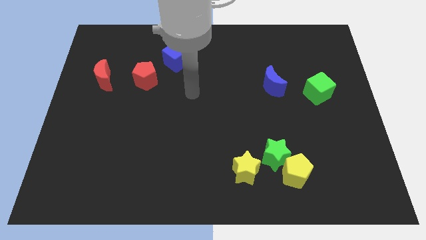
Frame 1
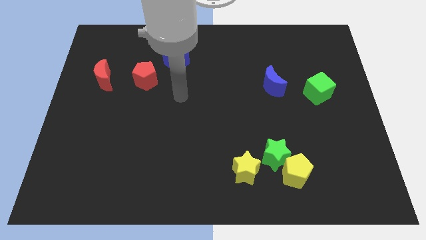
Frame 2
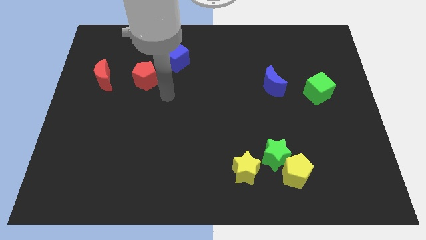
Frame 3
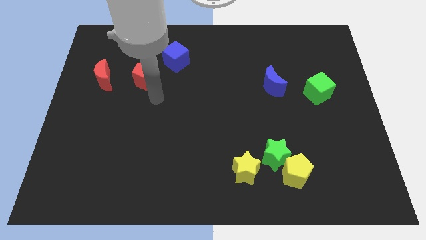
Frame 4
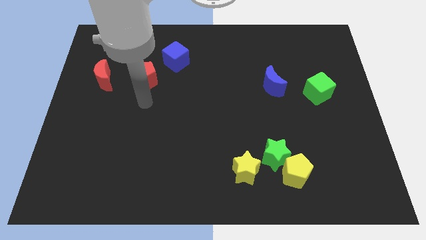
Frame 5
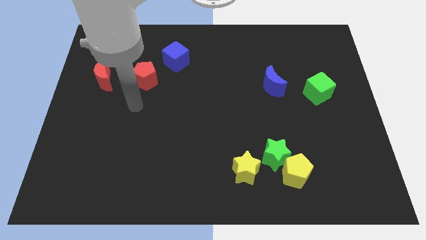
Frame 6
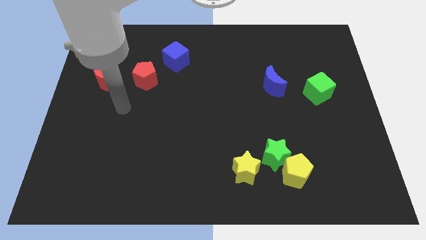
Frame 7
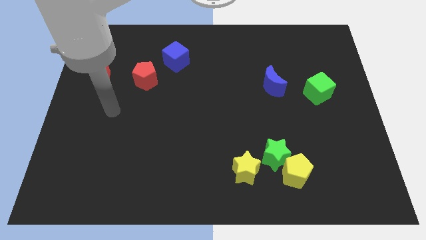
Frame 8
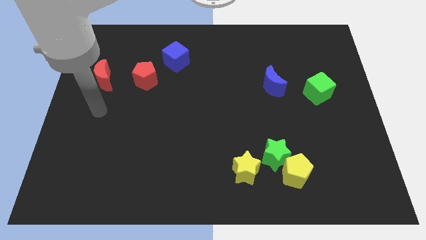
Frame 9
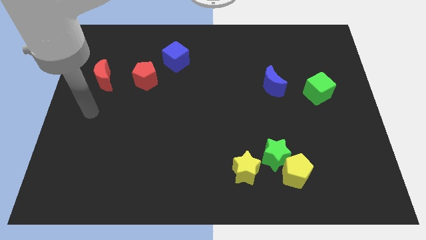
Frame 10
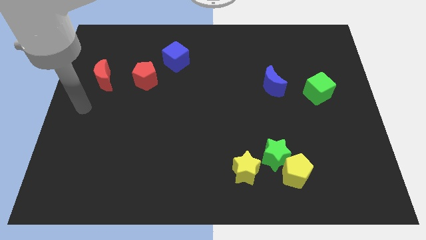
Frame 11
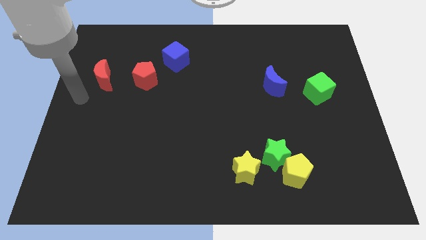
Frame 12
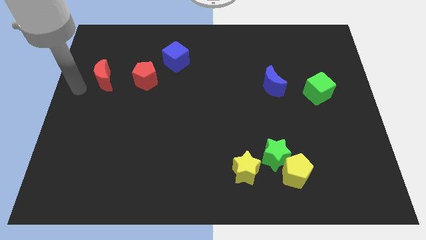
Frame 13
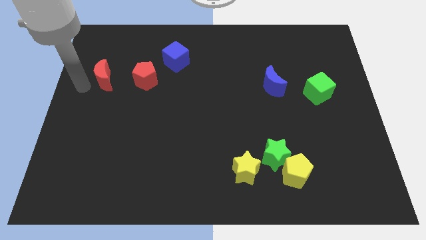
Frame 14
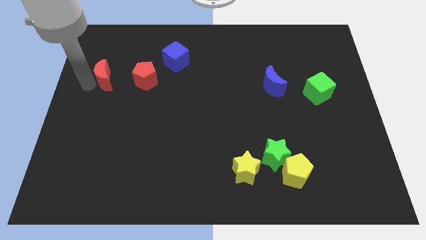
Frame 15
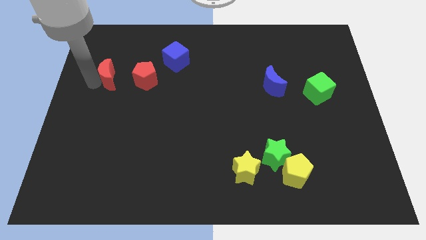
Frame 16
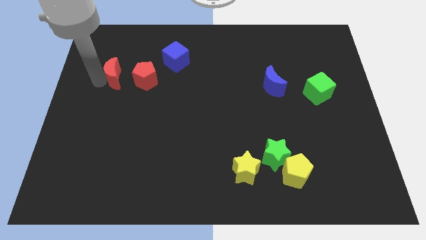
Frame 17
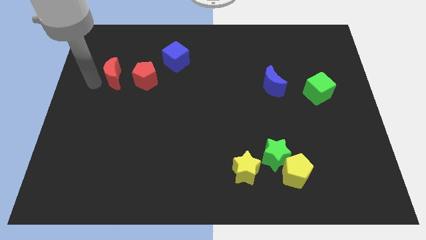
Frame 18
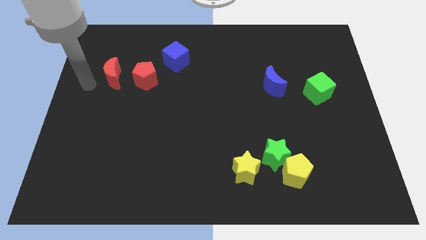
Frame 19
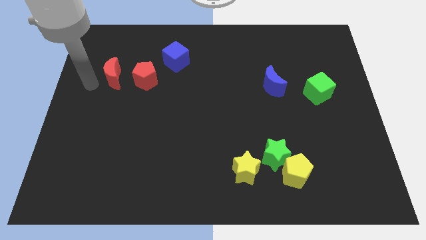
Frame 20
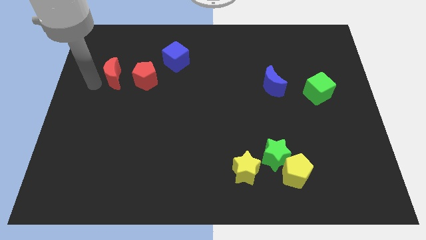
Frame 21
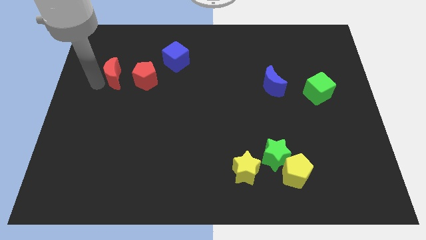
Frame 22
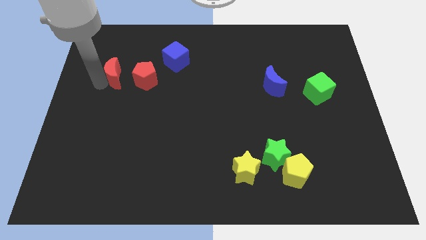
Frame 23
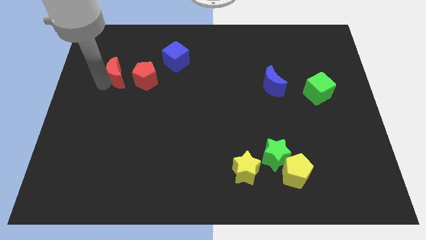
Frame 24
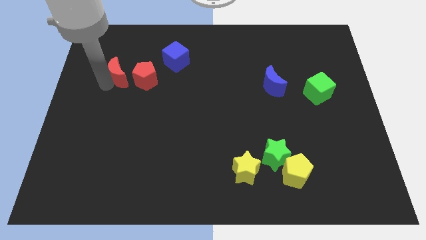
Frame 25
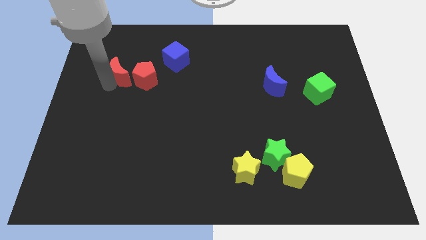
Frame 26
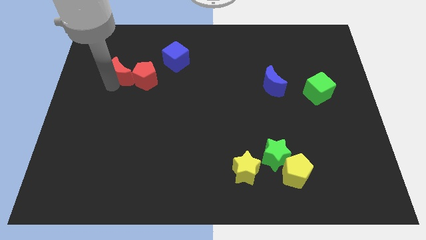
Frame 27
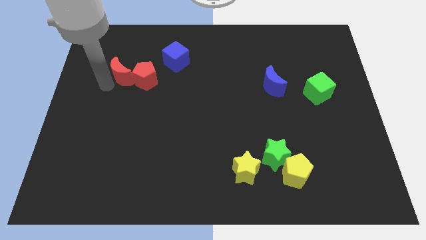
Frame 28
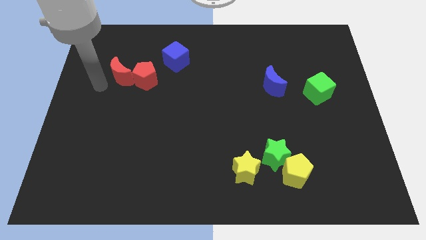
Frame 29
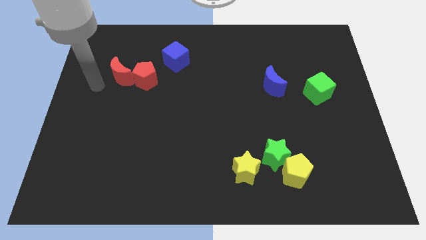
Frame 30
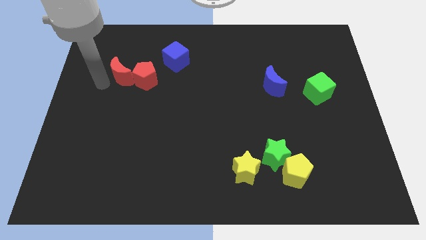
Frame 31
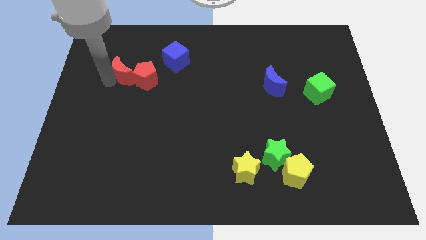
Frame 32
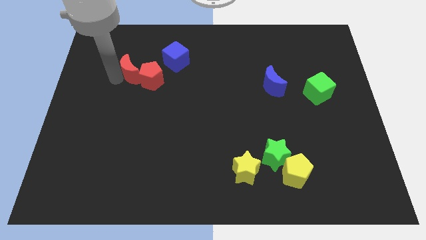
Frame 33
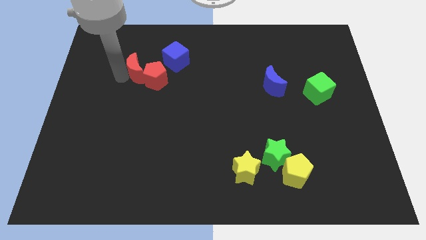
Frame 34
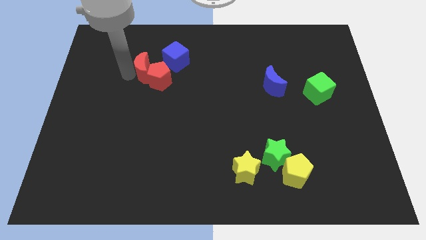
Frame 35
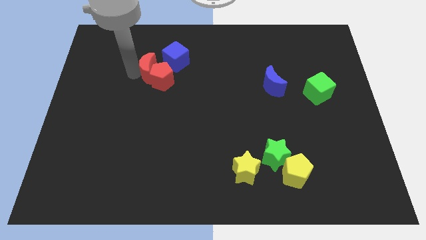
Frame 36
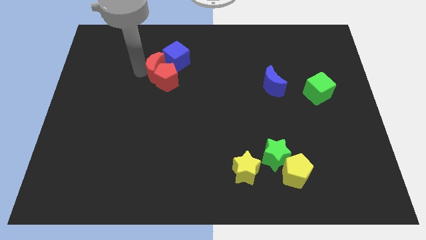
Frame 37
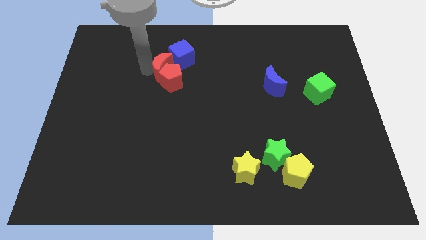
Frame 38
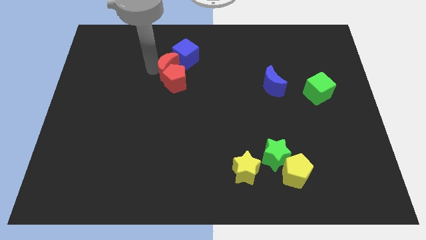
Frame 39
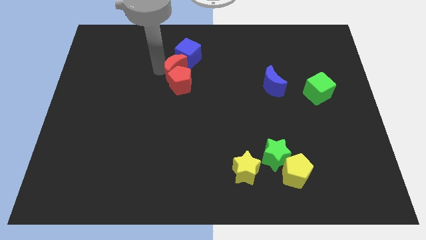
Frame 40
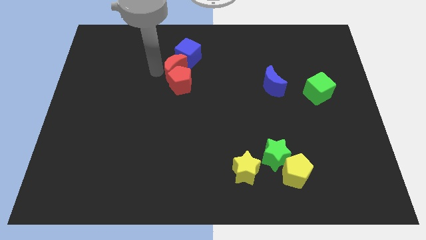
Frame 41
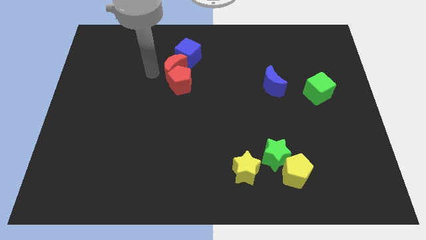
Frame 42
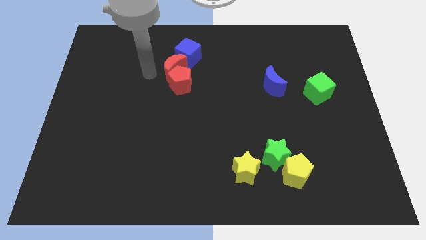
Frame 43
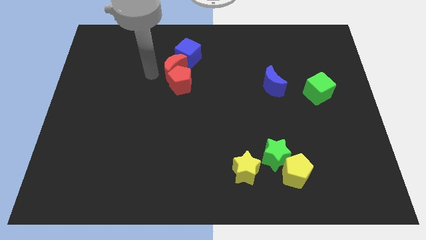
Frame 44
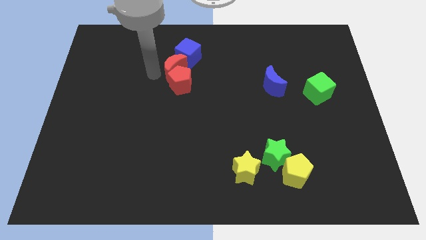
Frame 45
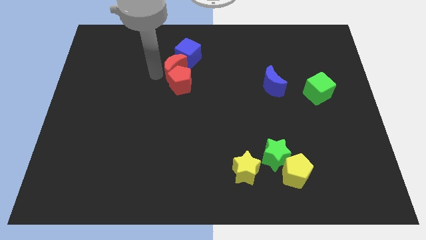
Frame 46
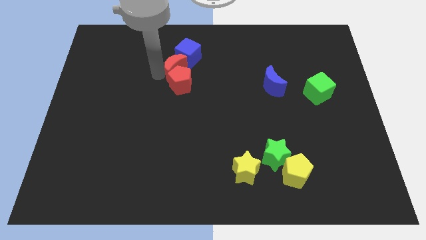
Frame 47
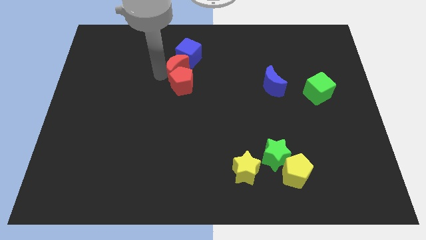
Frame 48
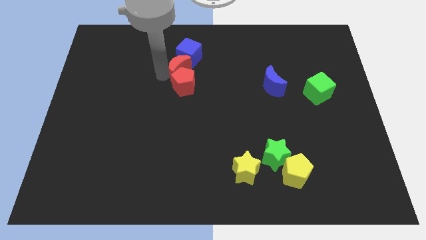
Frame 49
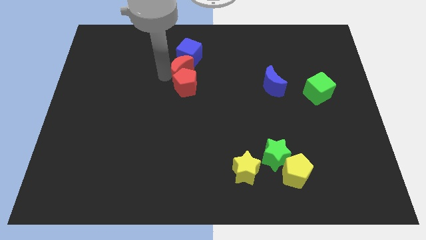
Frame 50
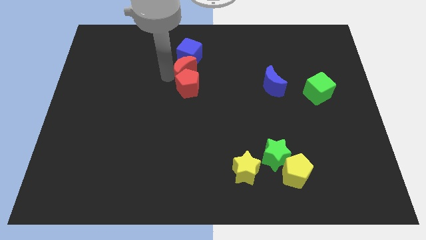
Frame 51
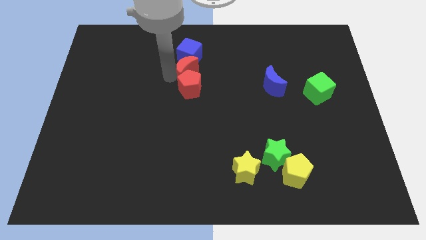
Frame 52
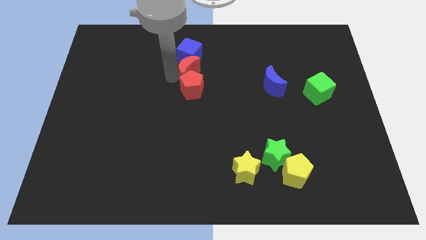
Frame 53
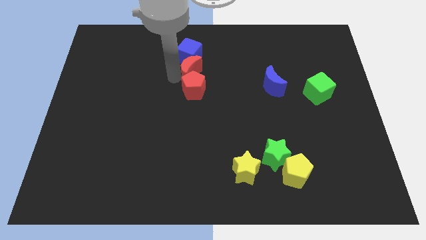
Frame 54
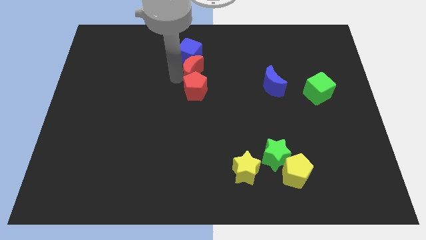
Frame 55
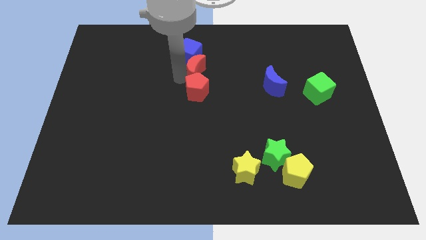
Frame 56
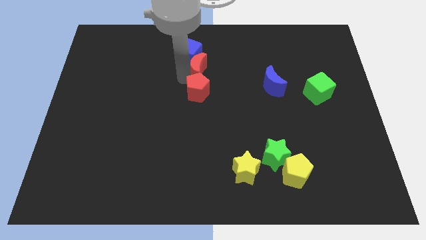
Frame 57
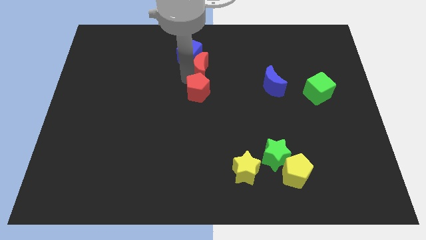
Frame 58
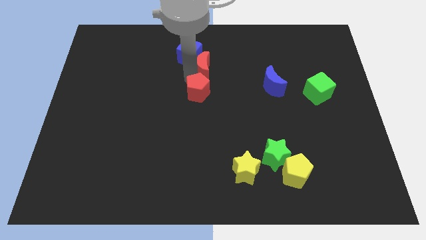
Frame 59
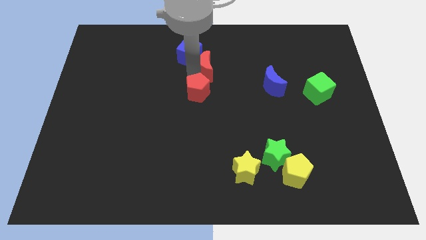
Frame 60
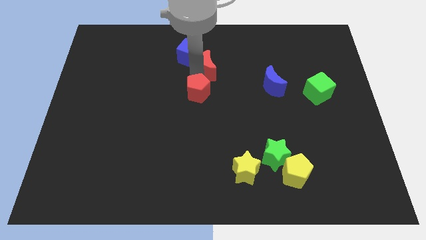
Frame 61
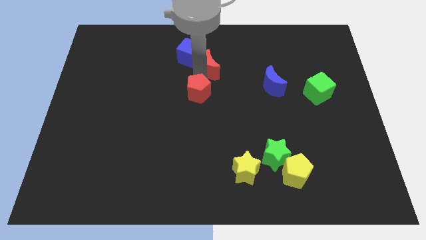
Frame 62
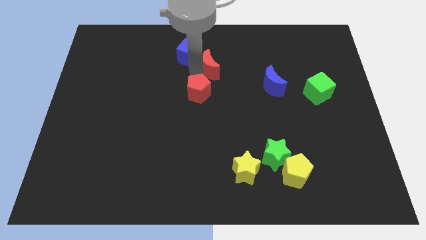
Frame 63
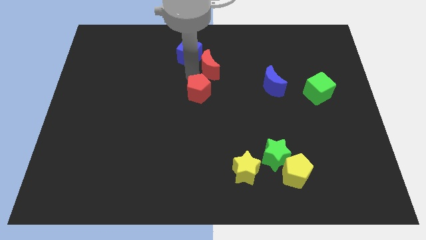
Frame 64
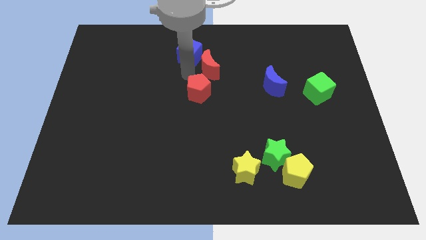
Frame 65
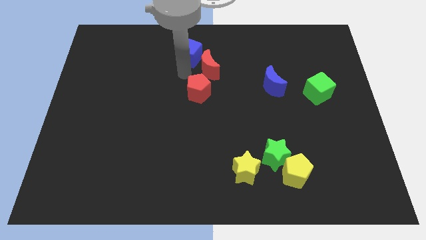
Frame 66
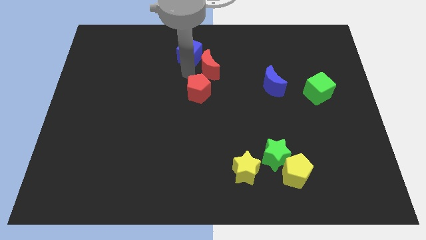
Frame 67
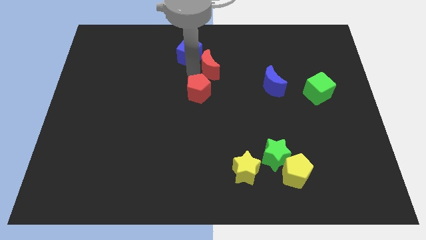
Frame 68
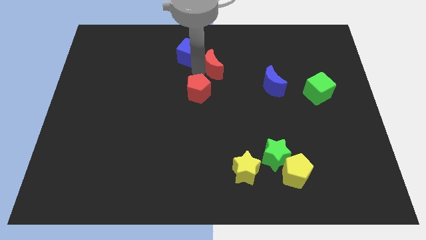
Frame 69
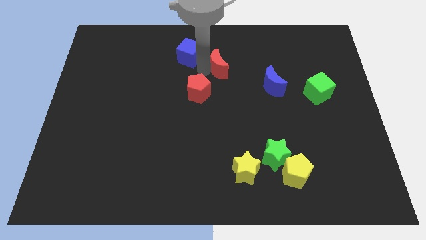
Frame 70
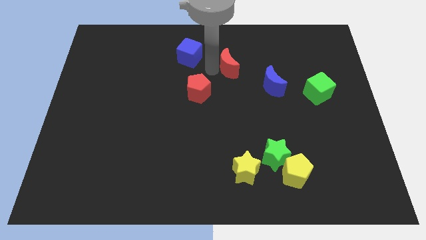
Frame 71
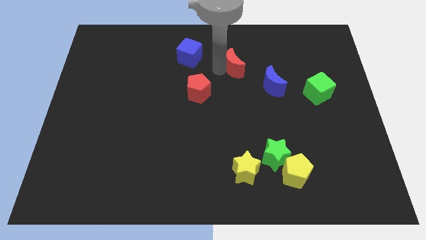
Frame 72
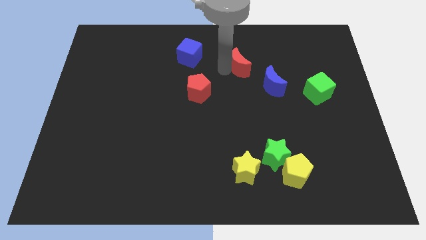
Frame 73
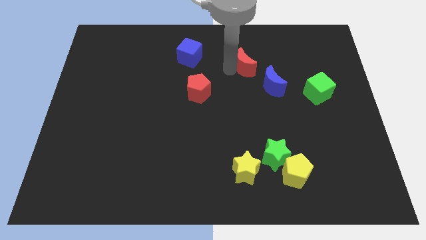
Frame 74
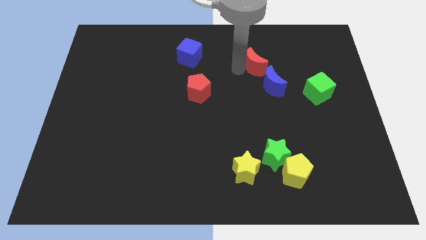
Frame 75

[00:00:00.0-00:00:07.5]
put the red moon to the top side of the blue moon
